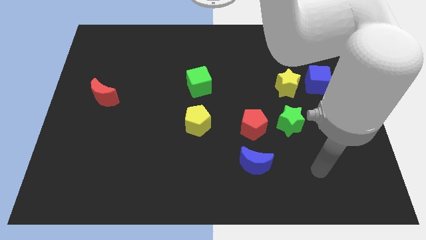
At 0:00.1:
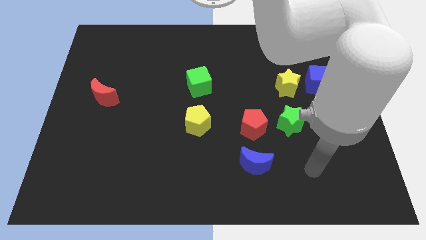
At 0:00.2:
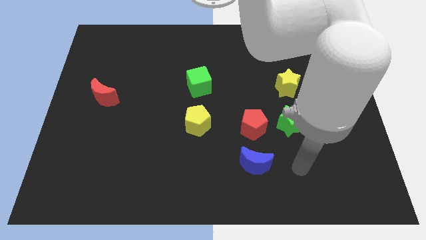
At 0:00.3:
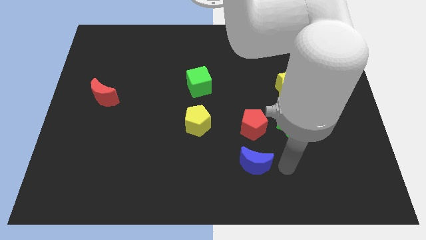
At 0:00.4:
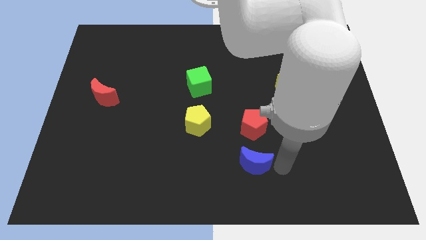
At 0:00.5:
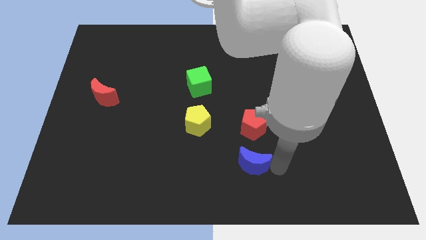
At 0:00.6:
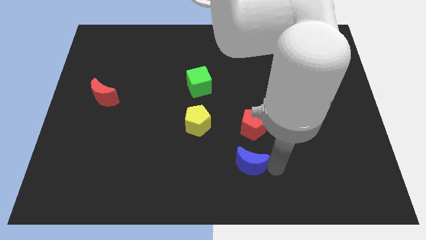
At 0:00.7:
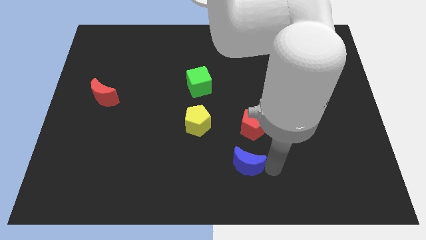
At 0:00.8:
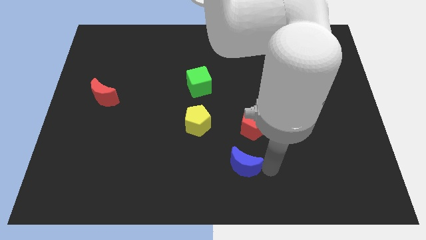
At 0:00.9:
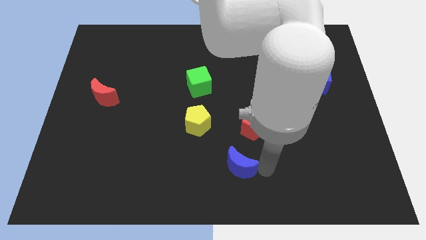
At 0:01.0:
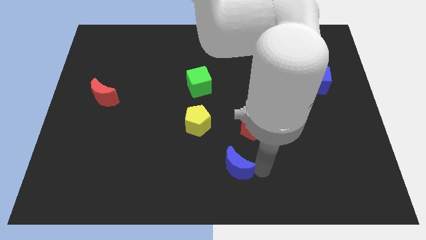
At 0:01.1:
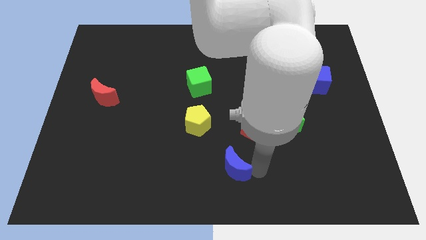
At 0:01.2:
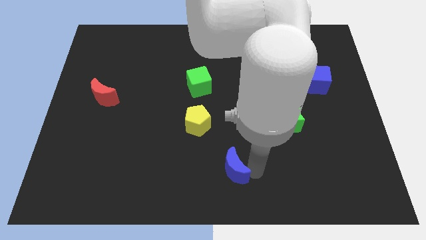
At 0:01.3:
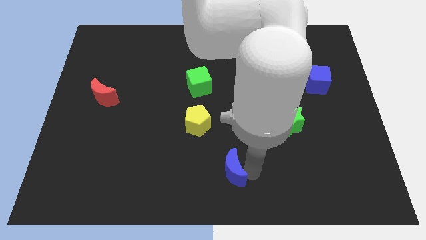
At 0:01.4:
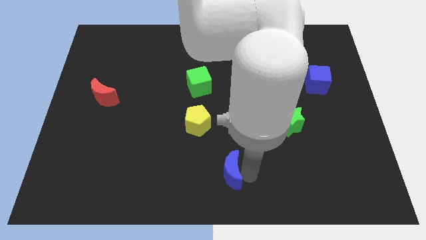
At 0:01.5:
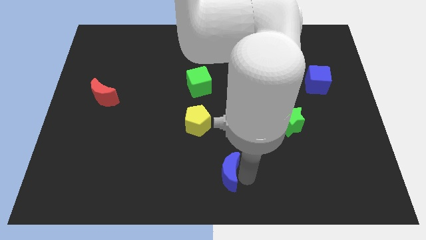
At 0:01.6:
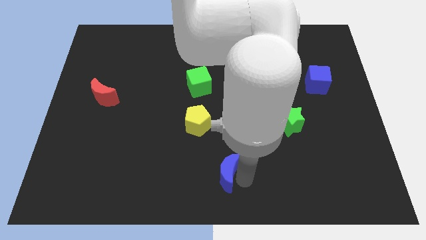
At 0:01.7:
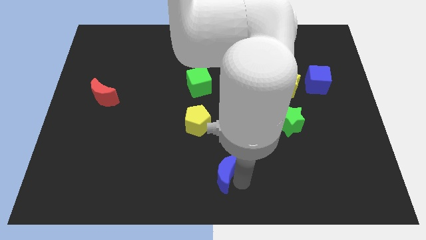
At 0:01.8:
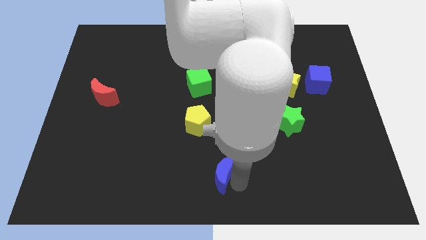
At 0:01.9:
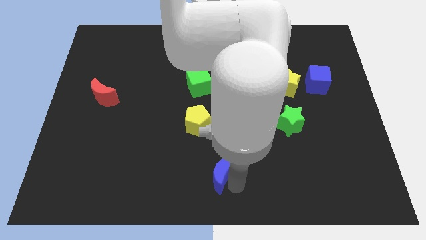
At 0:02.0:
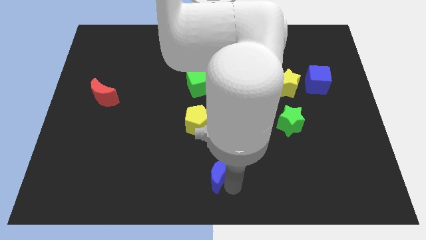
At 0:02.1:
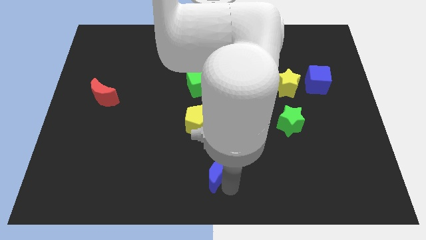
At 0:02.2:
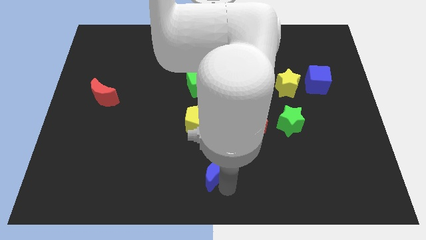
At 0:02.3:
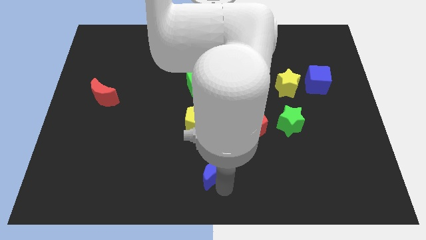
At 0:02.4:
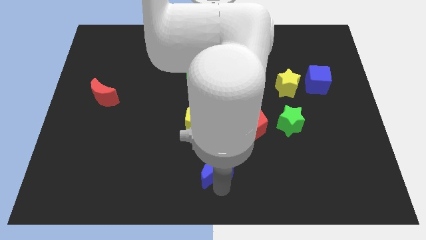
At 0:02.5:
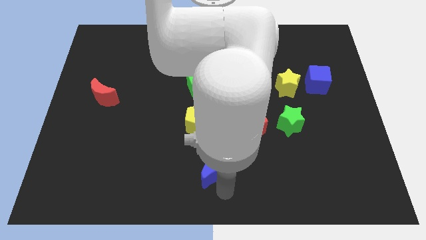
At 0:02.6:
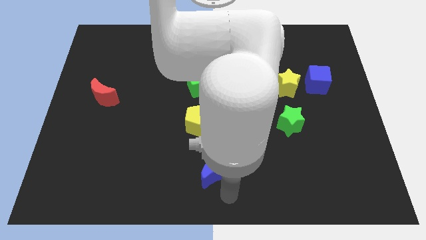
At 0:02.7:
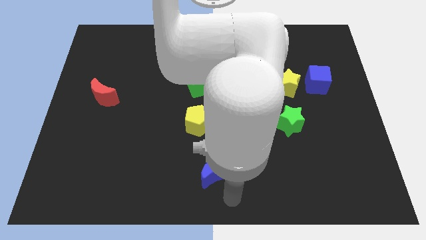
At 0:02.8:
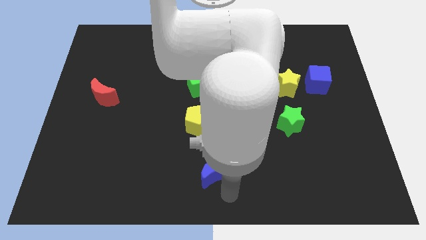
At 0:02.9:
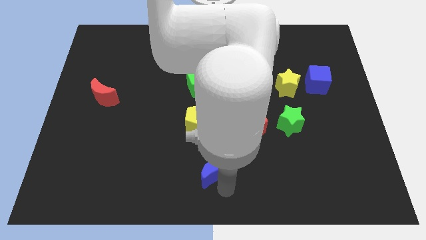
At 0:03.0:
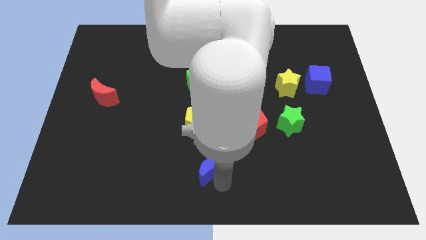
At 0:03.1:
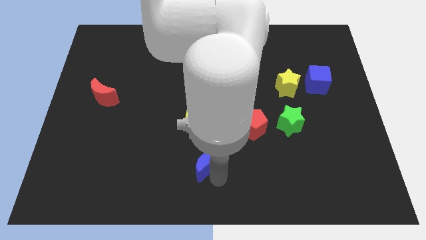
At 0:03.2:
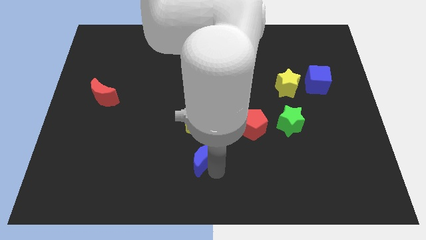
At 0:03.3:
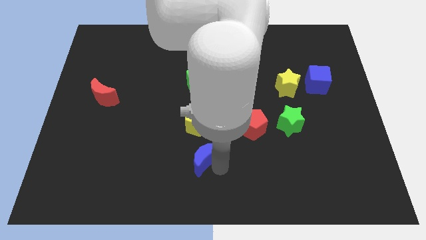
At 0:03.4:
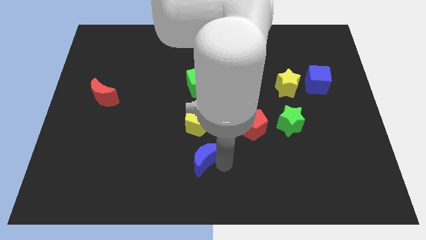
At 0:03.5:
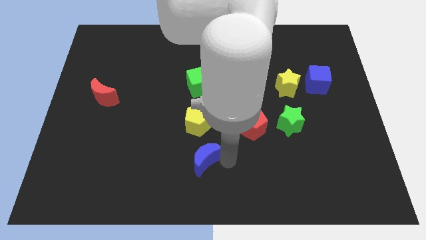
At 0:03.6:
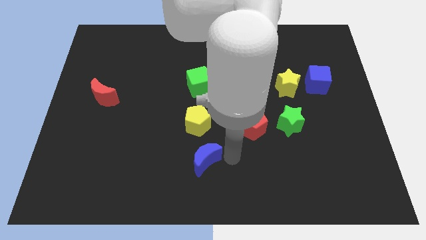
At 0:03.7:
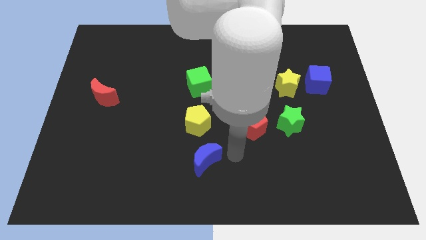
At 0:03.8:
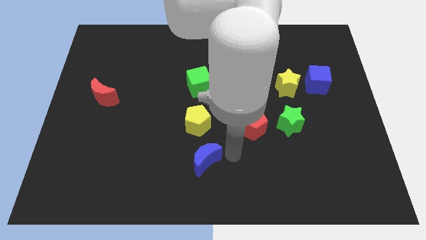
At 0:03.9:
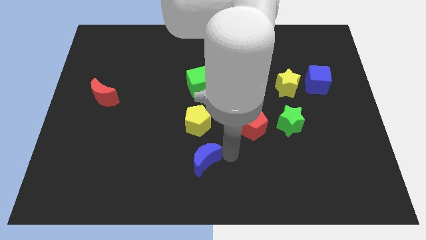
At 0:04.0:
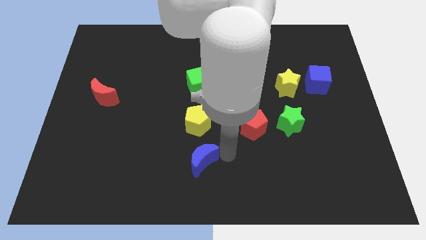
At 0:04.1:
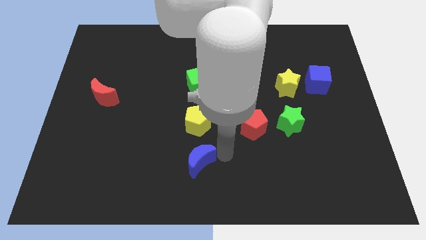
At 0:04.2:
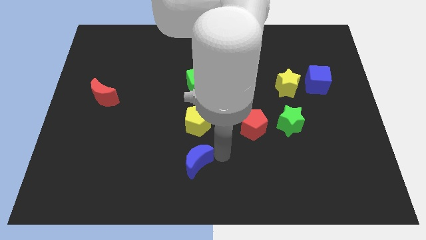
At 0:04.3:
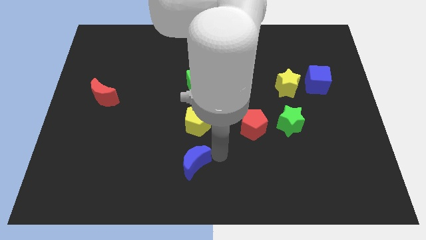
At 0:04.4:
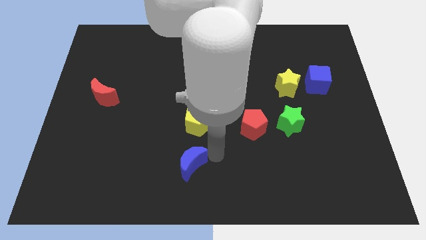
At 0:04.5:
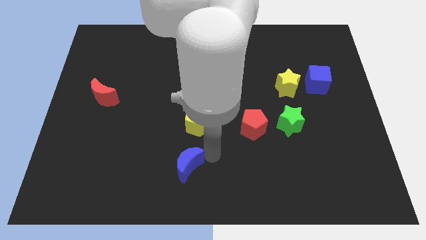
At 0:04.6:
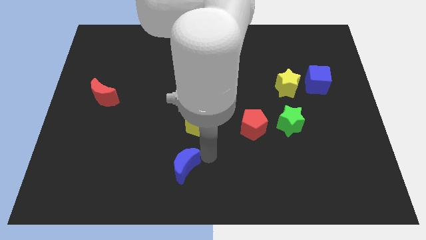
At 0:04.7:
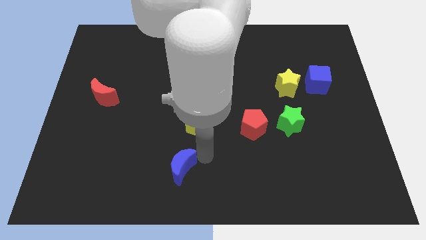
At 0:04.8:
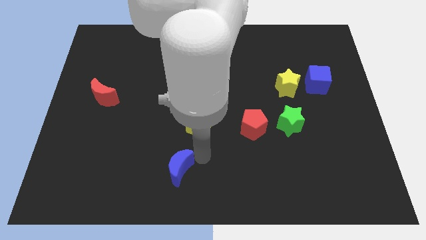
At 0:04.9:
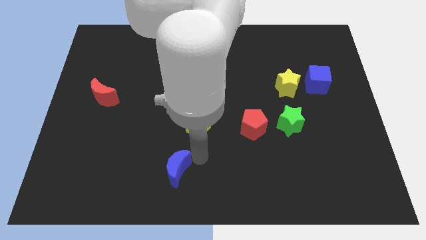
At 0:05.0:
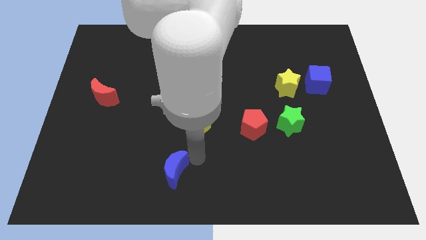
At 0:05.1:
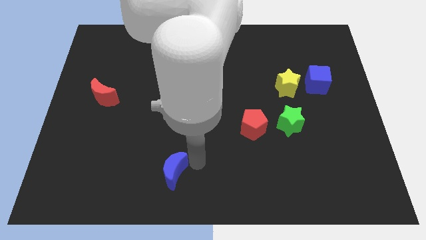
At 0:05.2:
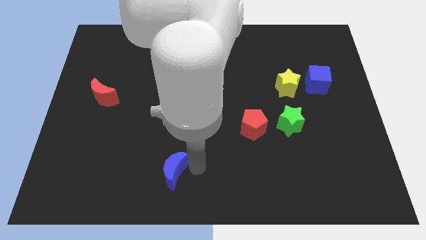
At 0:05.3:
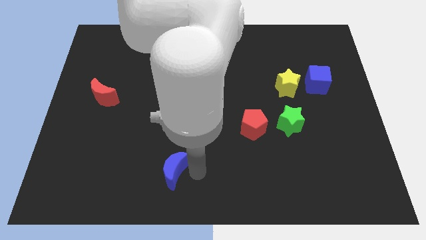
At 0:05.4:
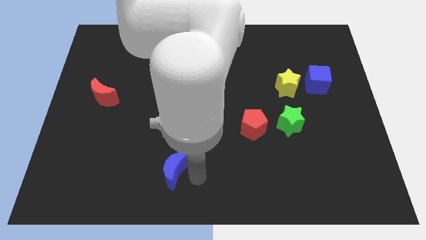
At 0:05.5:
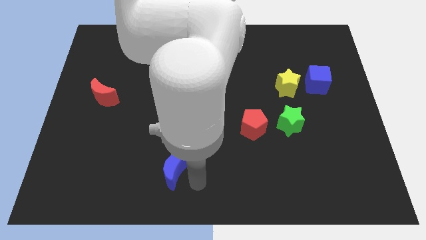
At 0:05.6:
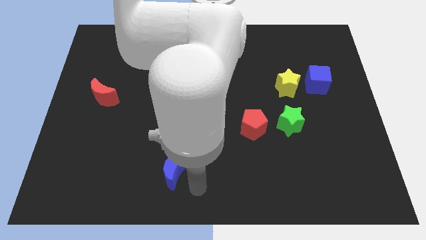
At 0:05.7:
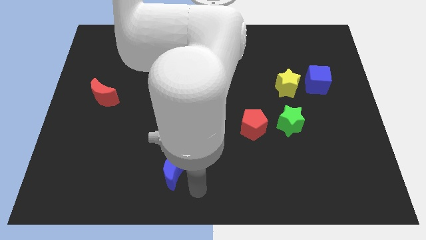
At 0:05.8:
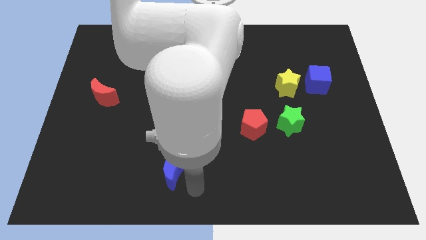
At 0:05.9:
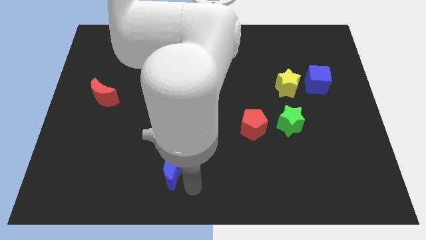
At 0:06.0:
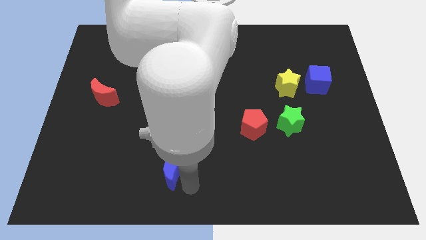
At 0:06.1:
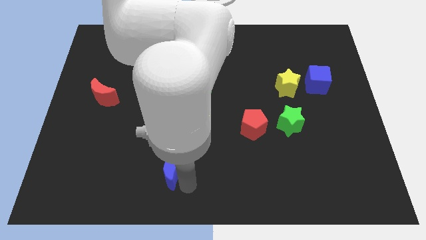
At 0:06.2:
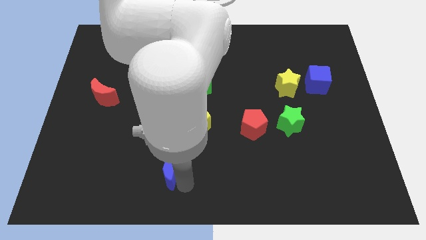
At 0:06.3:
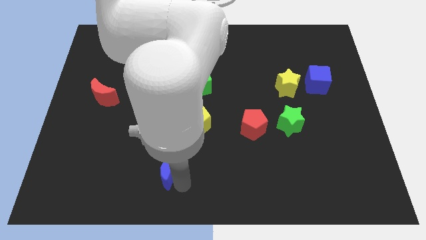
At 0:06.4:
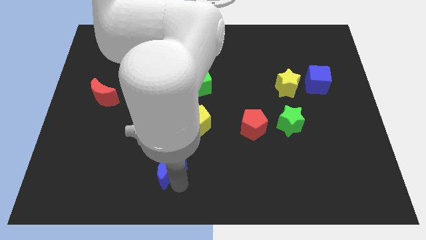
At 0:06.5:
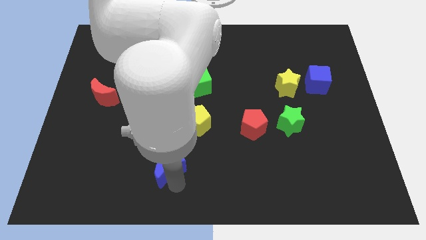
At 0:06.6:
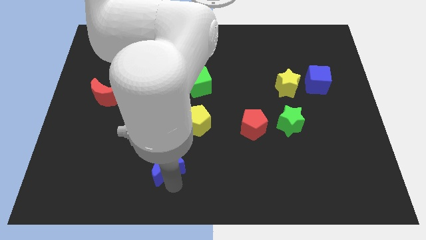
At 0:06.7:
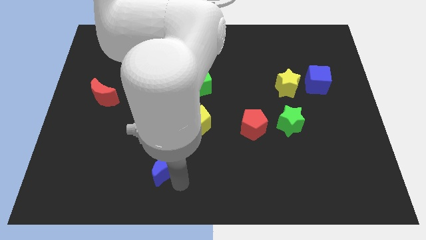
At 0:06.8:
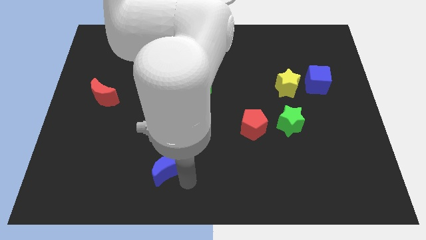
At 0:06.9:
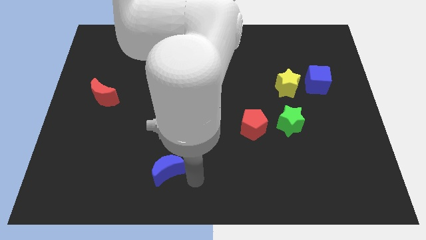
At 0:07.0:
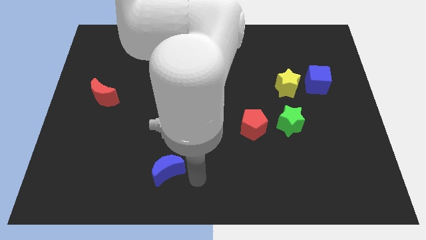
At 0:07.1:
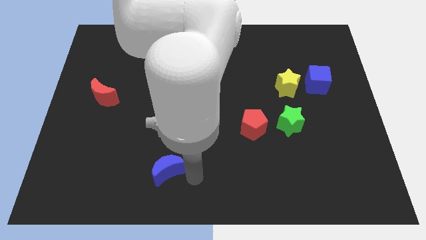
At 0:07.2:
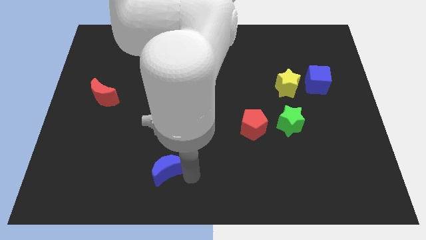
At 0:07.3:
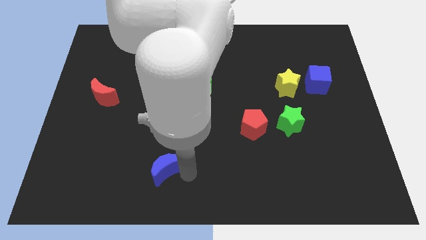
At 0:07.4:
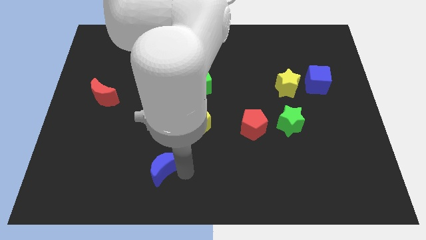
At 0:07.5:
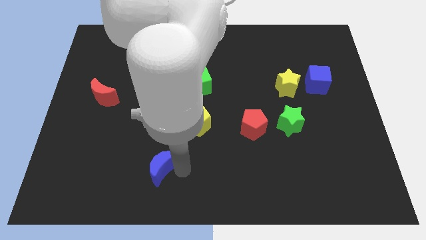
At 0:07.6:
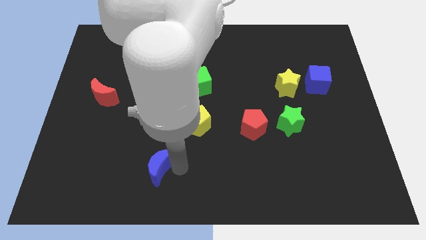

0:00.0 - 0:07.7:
move the blue moon left
